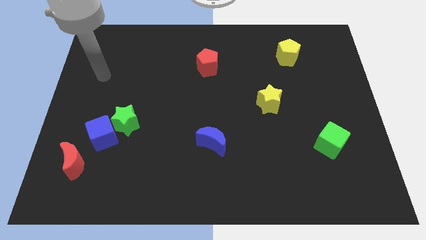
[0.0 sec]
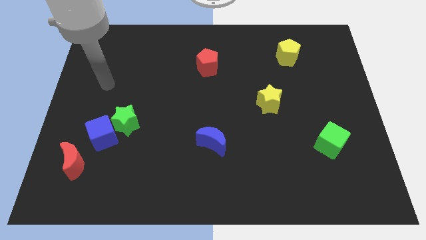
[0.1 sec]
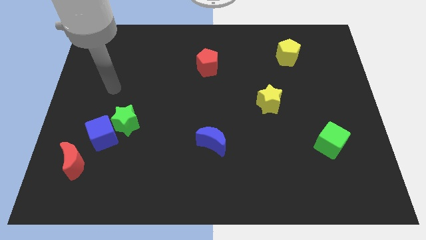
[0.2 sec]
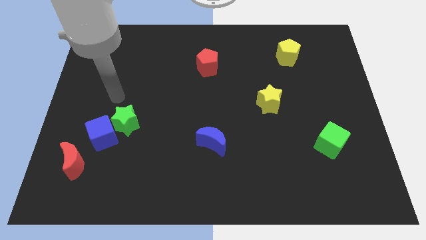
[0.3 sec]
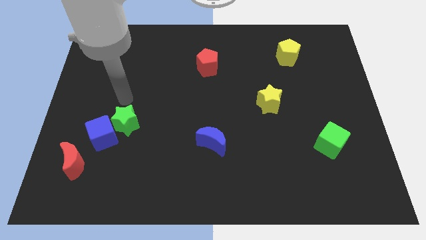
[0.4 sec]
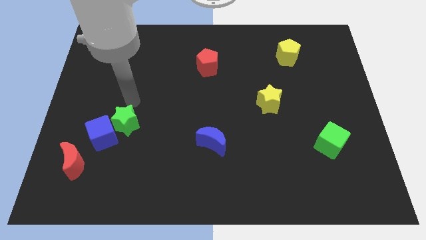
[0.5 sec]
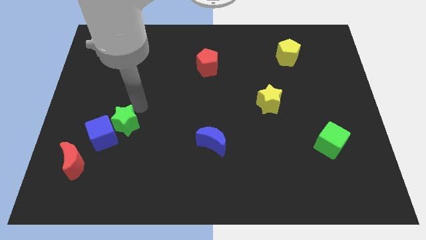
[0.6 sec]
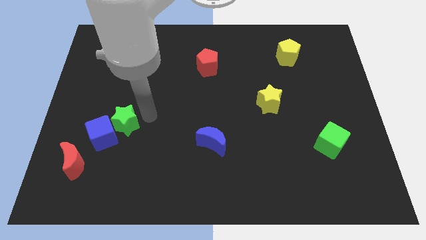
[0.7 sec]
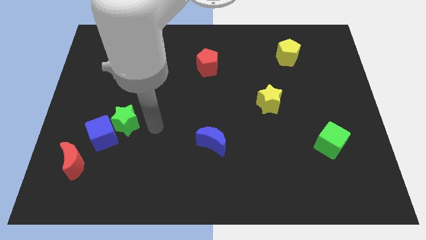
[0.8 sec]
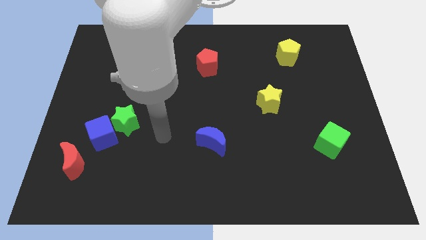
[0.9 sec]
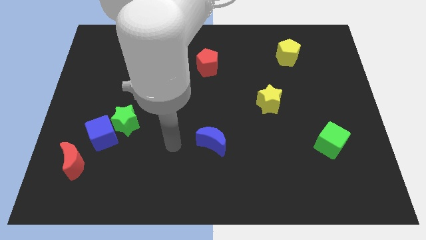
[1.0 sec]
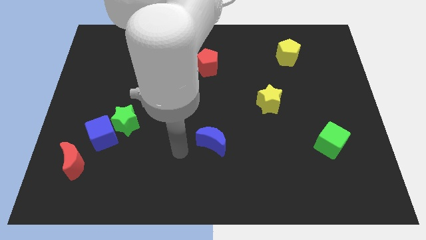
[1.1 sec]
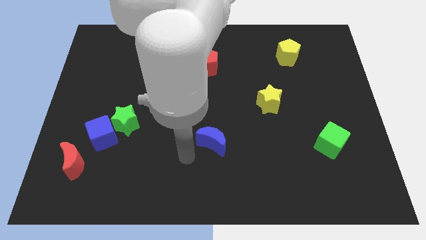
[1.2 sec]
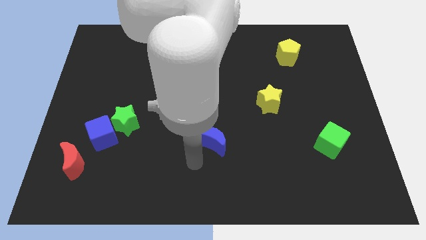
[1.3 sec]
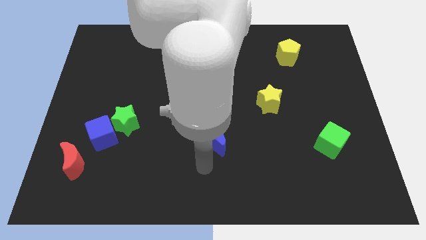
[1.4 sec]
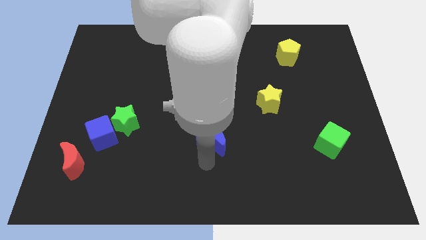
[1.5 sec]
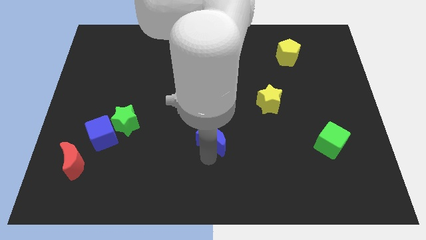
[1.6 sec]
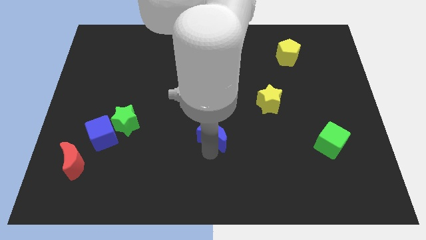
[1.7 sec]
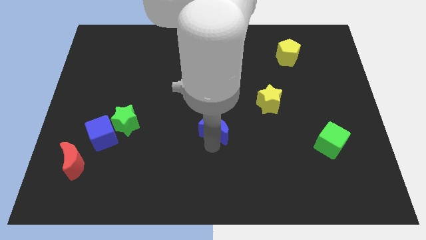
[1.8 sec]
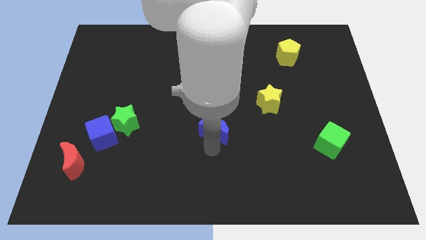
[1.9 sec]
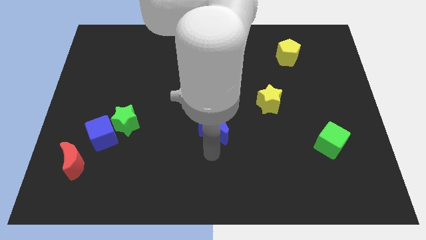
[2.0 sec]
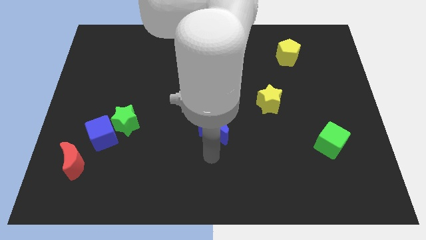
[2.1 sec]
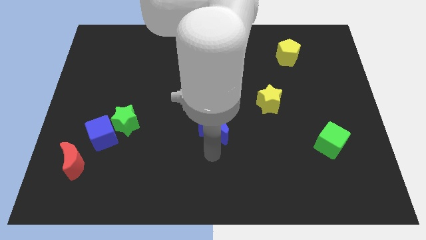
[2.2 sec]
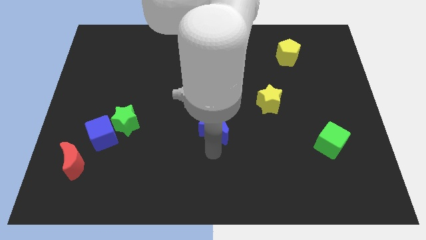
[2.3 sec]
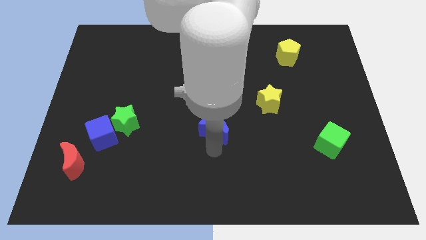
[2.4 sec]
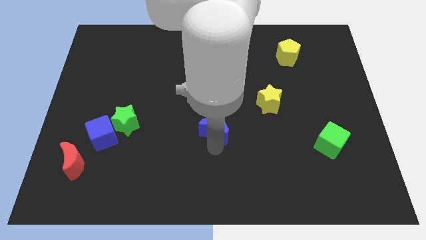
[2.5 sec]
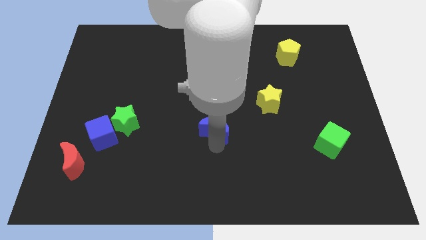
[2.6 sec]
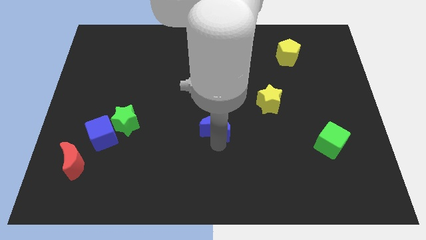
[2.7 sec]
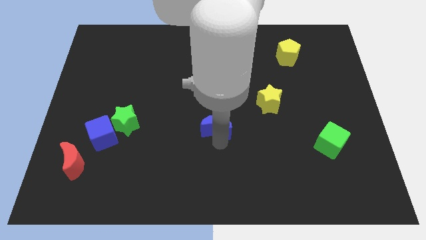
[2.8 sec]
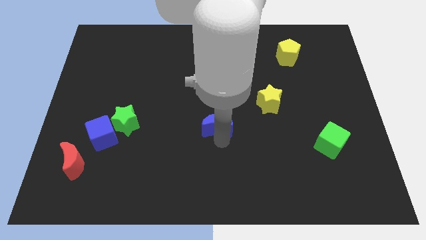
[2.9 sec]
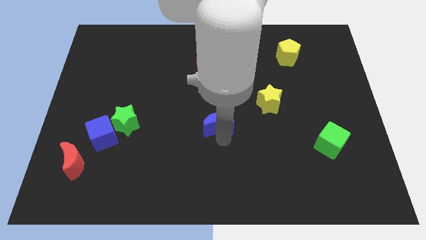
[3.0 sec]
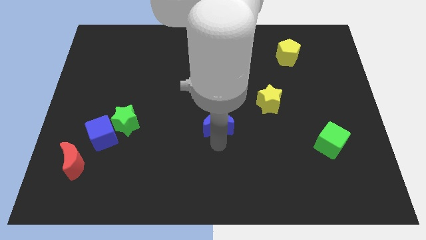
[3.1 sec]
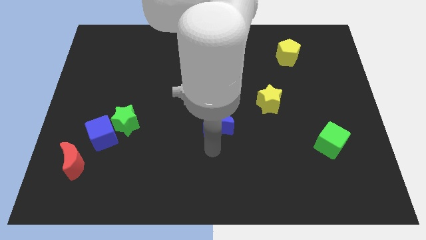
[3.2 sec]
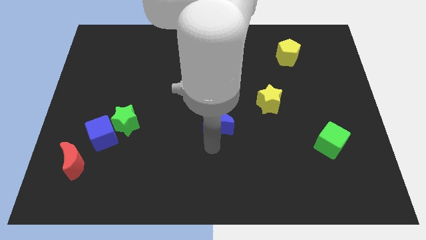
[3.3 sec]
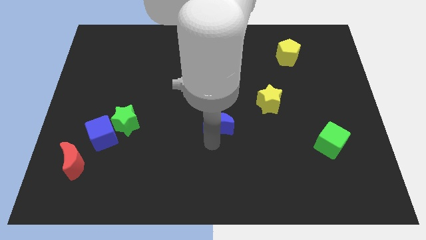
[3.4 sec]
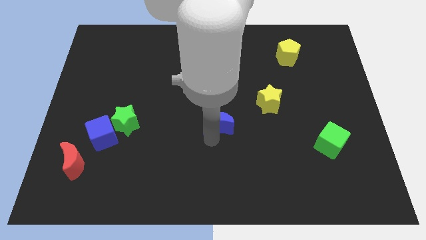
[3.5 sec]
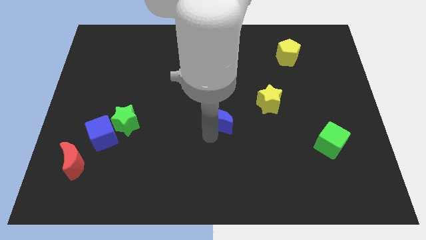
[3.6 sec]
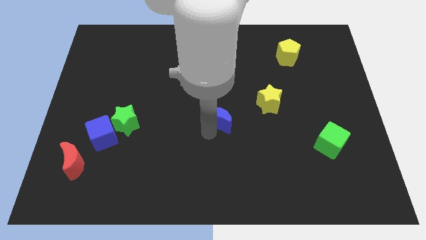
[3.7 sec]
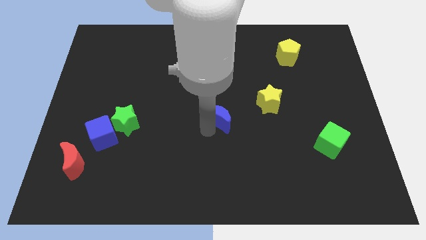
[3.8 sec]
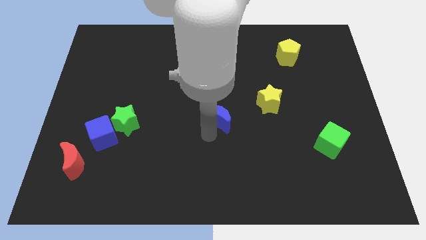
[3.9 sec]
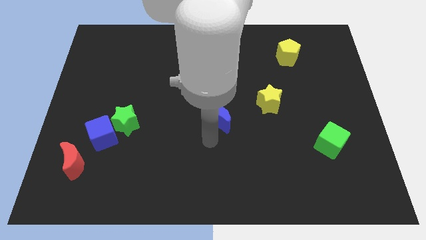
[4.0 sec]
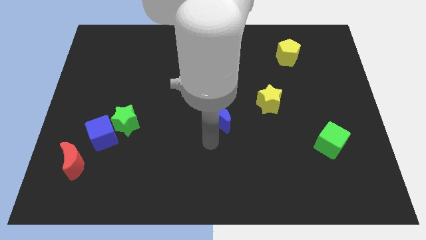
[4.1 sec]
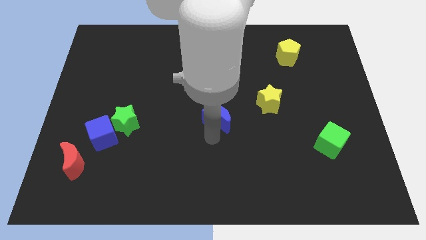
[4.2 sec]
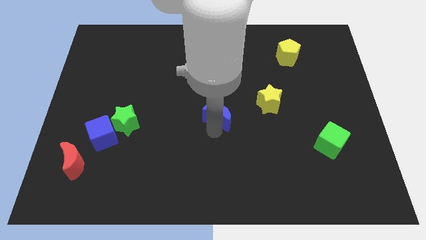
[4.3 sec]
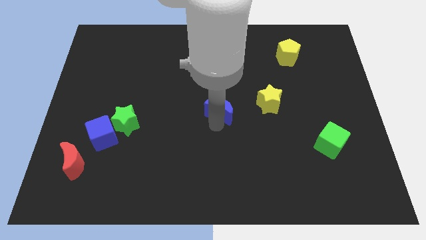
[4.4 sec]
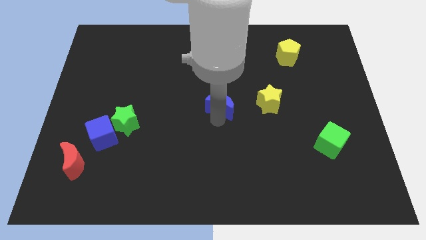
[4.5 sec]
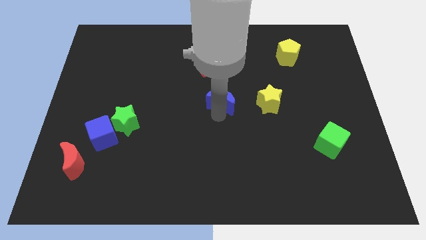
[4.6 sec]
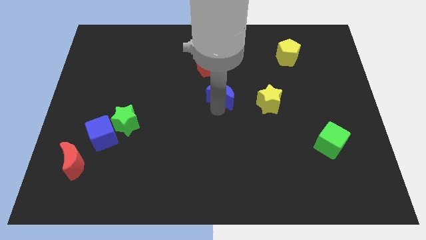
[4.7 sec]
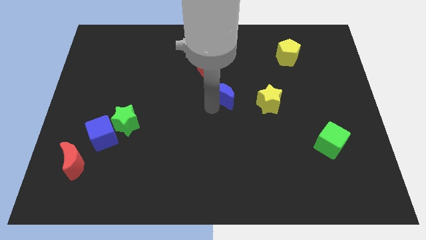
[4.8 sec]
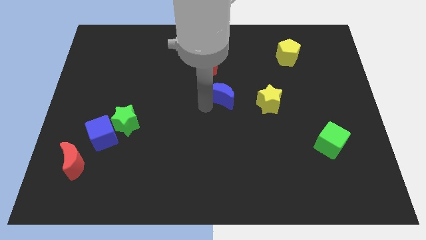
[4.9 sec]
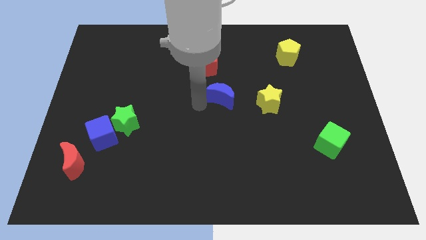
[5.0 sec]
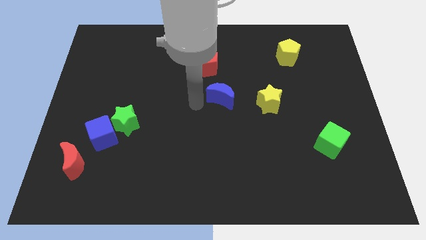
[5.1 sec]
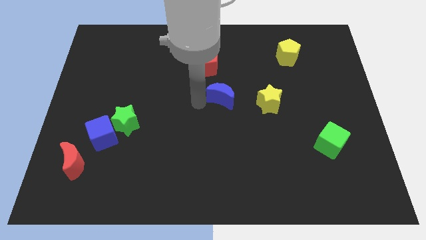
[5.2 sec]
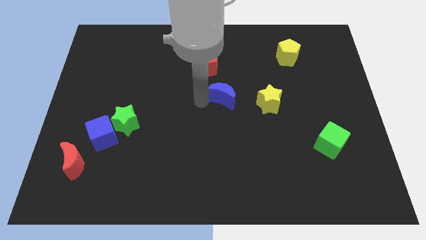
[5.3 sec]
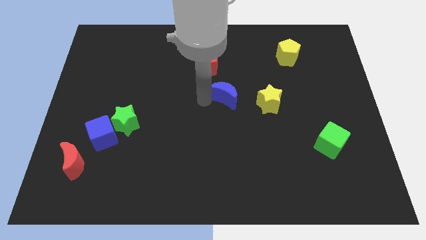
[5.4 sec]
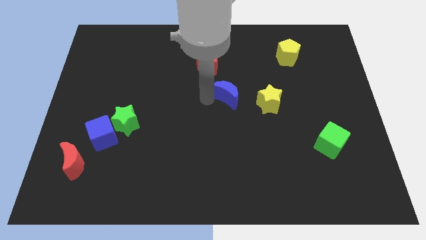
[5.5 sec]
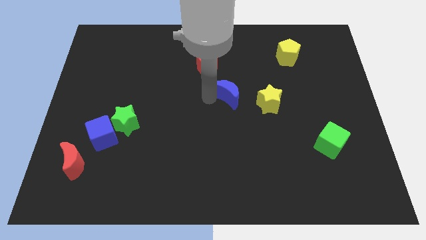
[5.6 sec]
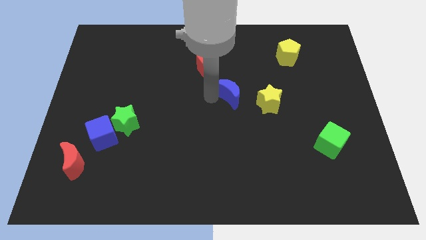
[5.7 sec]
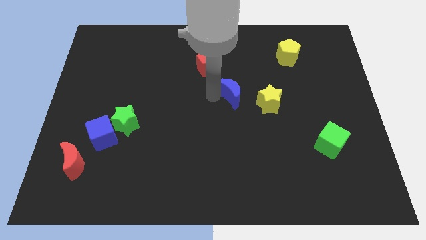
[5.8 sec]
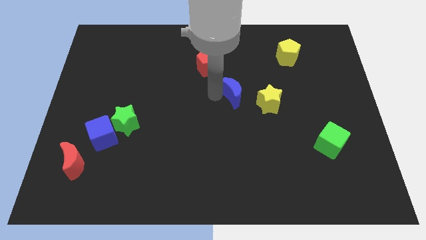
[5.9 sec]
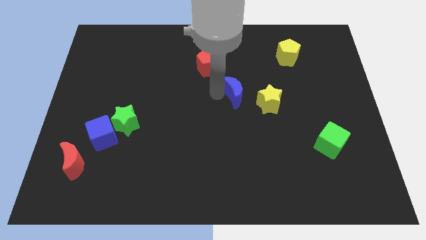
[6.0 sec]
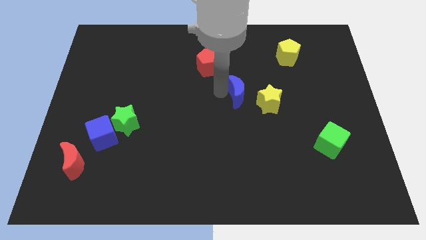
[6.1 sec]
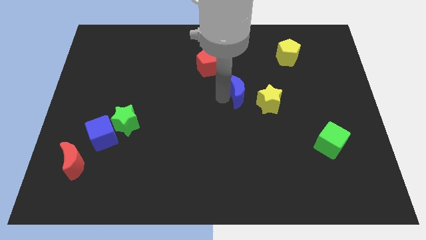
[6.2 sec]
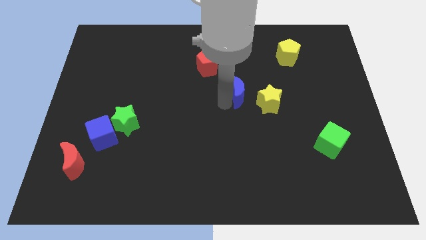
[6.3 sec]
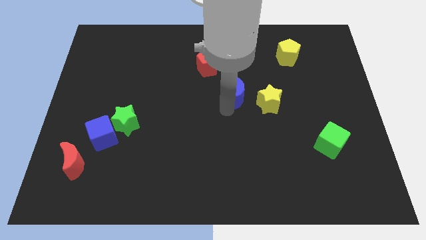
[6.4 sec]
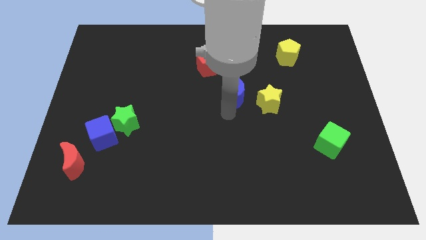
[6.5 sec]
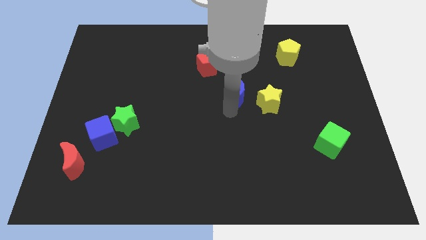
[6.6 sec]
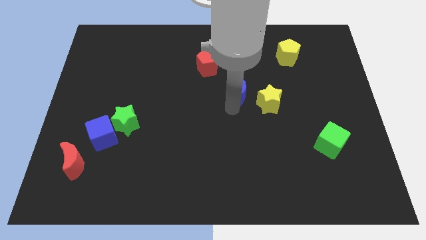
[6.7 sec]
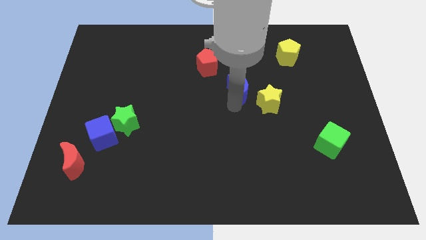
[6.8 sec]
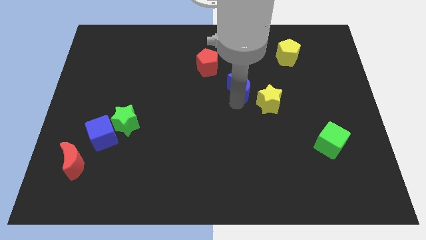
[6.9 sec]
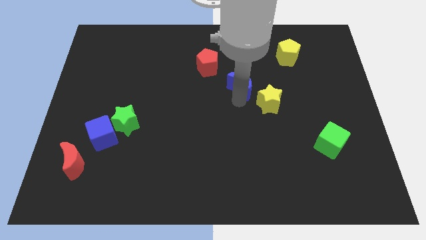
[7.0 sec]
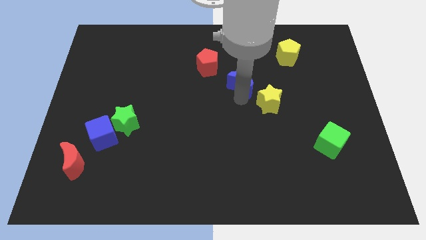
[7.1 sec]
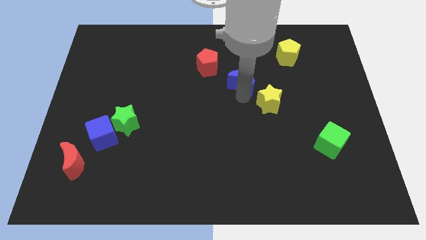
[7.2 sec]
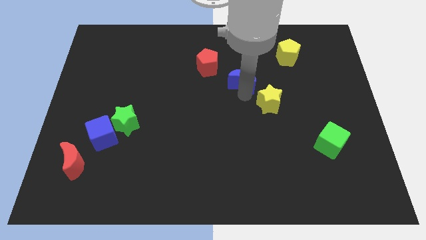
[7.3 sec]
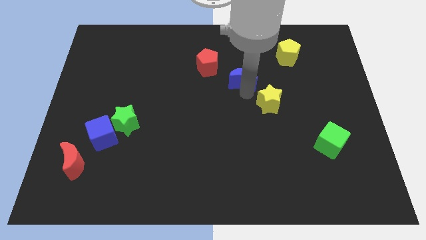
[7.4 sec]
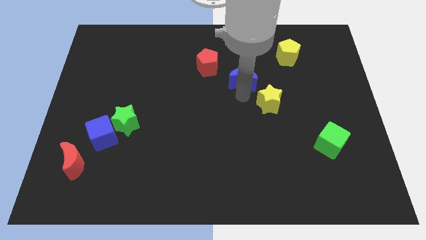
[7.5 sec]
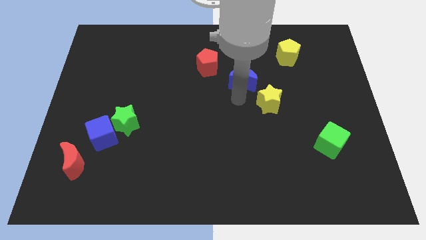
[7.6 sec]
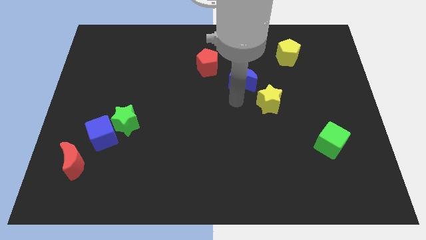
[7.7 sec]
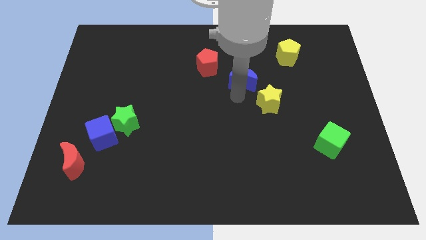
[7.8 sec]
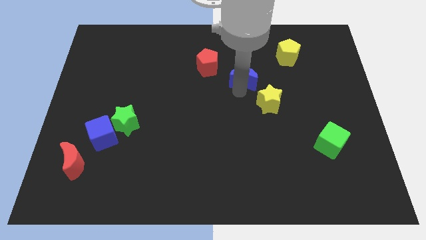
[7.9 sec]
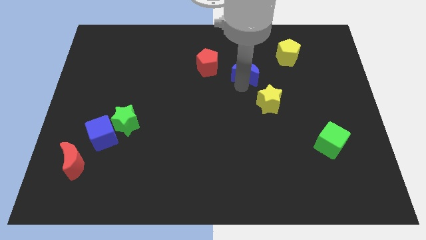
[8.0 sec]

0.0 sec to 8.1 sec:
put the blue moon to the right of the red pentagon

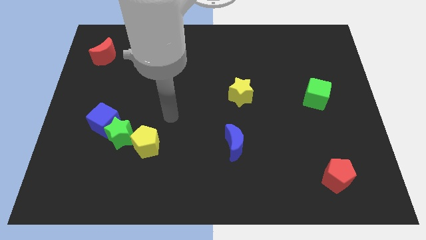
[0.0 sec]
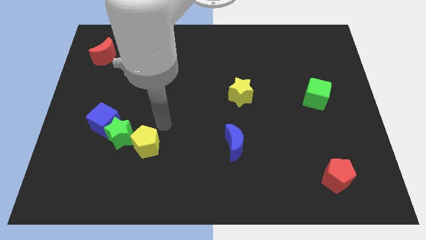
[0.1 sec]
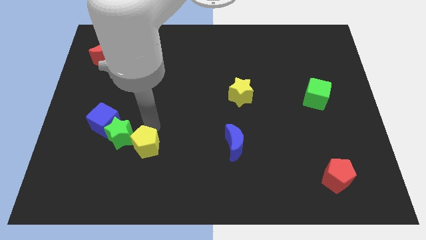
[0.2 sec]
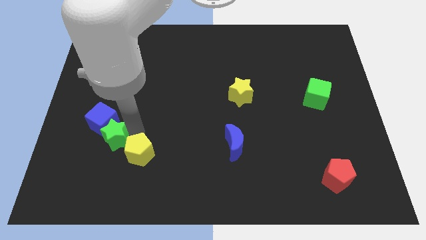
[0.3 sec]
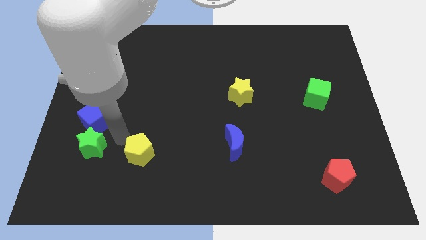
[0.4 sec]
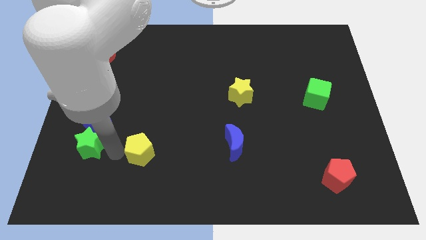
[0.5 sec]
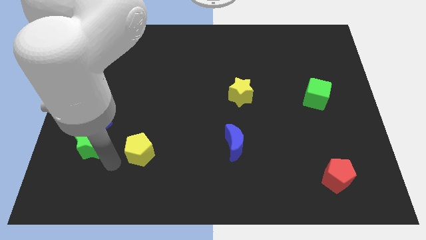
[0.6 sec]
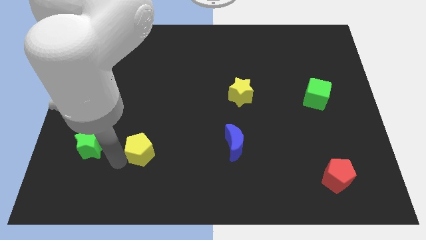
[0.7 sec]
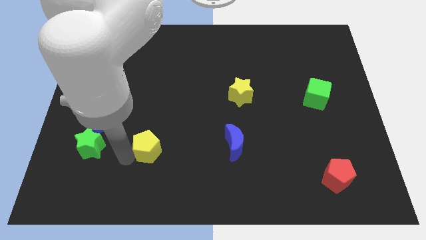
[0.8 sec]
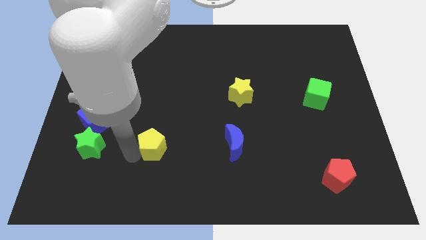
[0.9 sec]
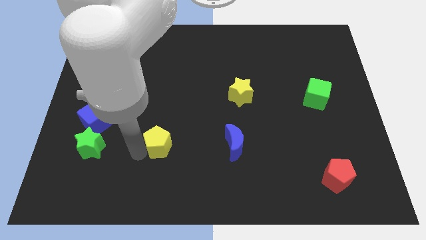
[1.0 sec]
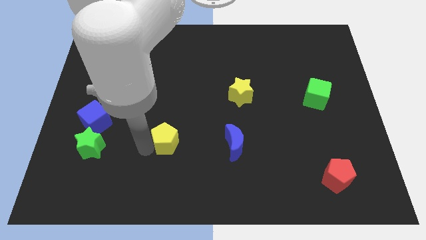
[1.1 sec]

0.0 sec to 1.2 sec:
push the yellow pentagon to the left of the blue moon
